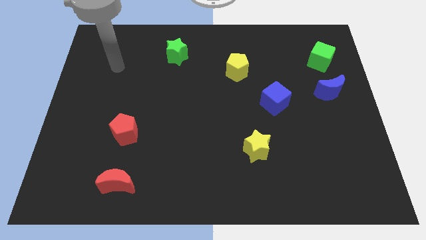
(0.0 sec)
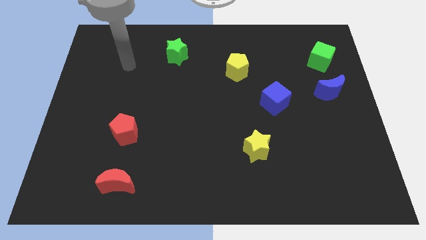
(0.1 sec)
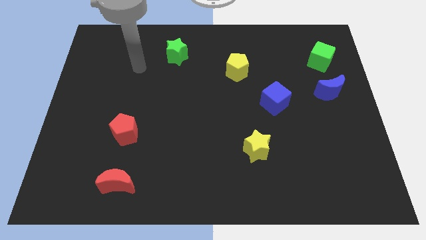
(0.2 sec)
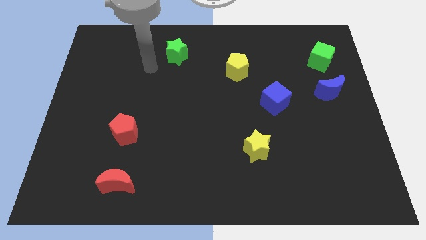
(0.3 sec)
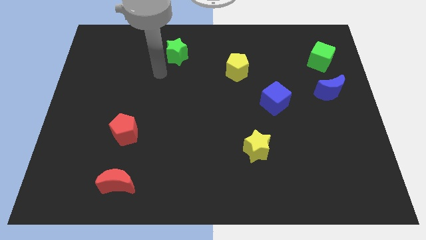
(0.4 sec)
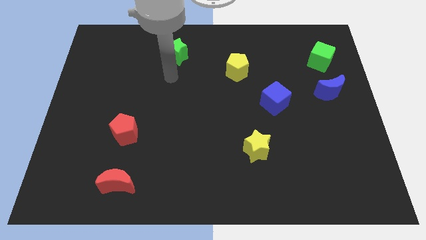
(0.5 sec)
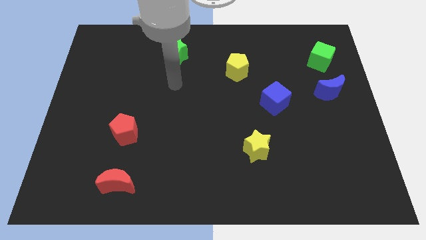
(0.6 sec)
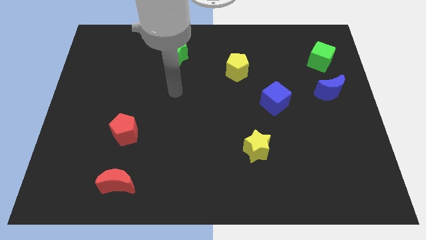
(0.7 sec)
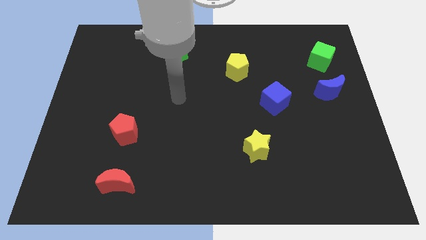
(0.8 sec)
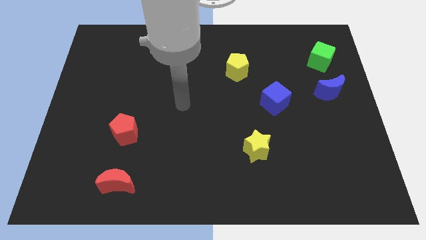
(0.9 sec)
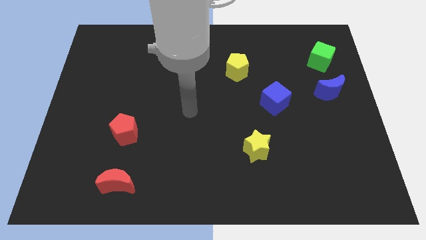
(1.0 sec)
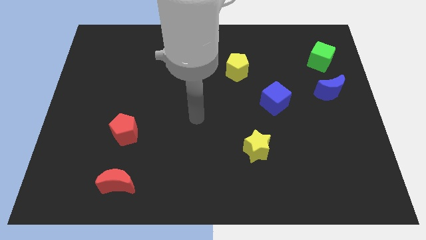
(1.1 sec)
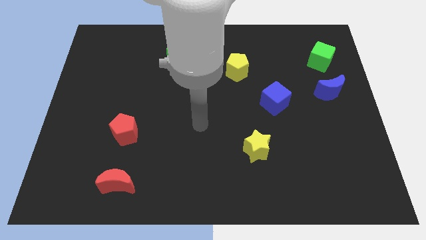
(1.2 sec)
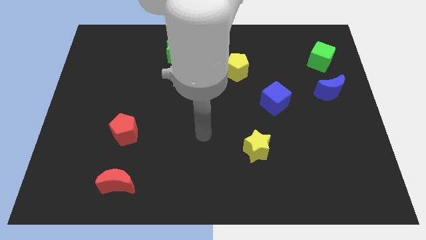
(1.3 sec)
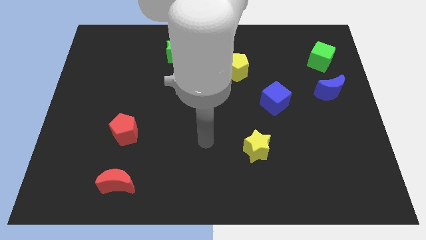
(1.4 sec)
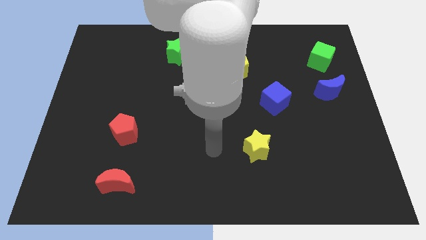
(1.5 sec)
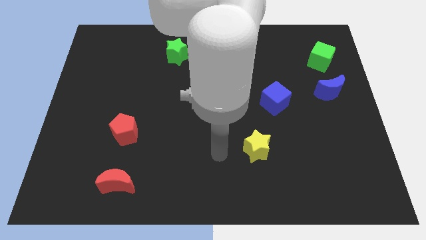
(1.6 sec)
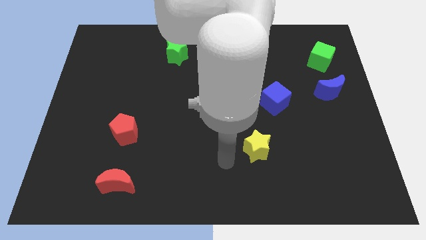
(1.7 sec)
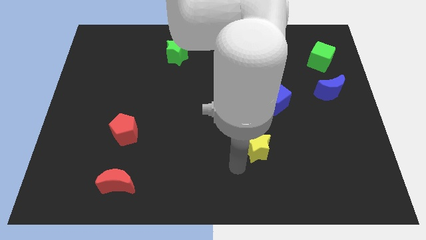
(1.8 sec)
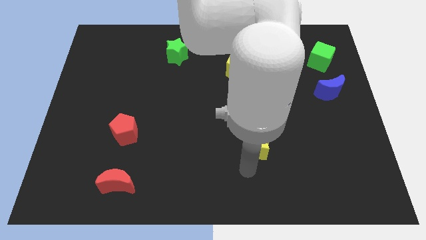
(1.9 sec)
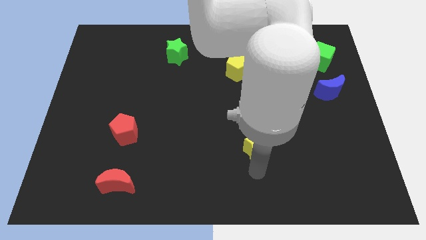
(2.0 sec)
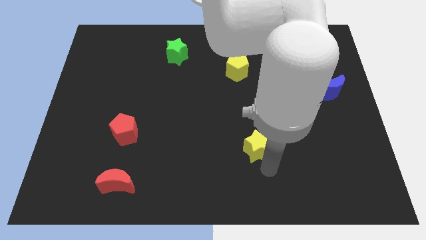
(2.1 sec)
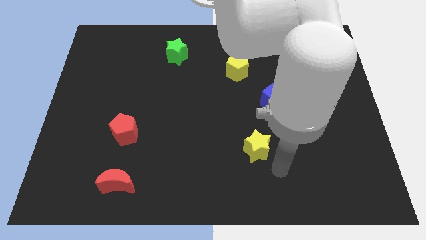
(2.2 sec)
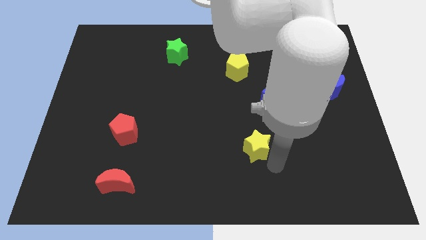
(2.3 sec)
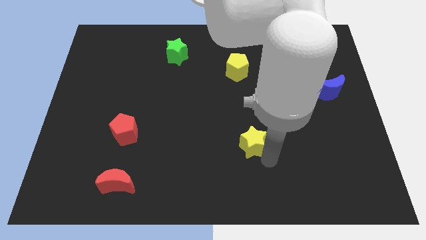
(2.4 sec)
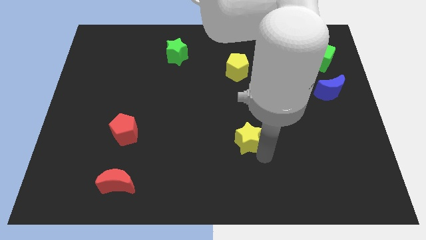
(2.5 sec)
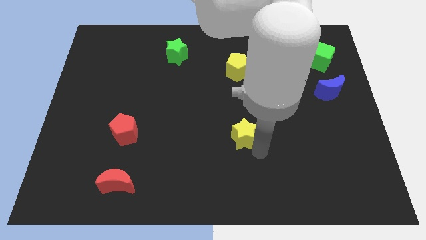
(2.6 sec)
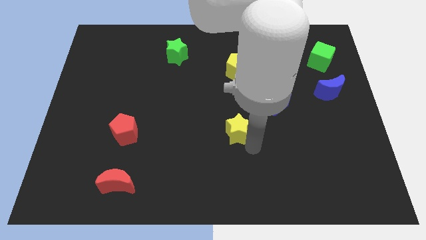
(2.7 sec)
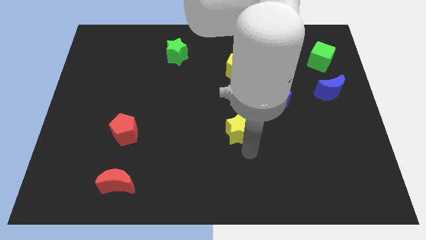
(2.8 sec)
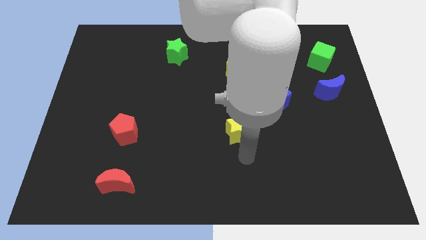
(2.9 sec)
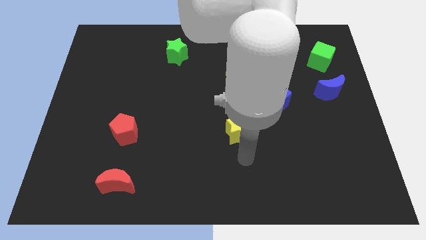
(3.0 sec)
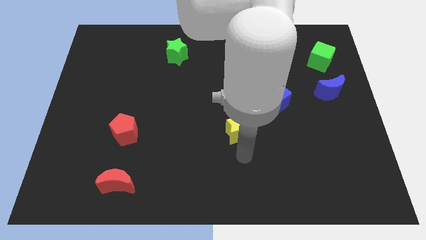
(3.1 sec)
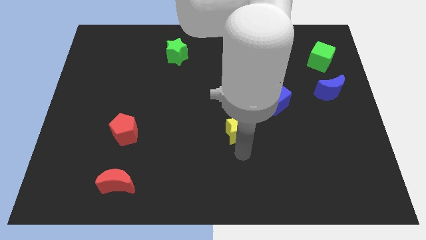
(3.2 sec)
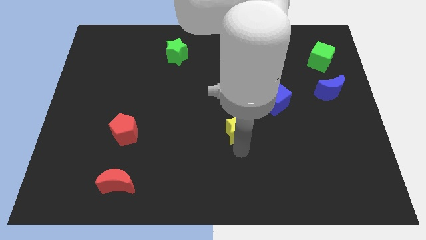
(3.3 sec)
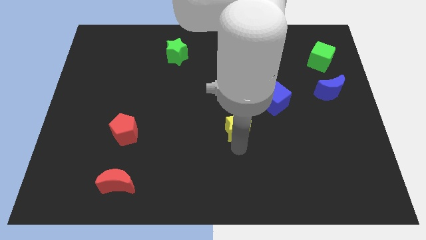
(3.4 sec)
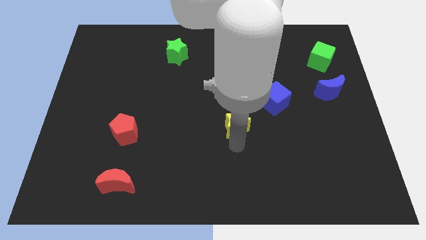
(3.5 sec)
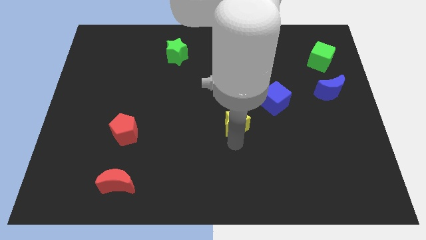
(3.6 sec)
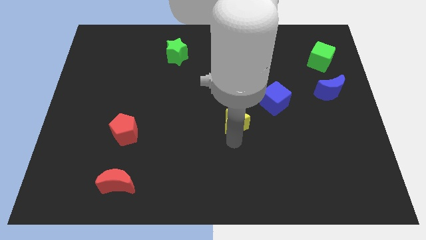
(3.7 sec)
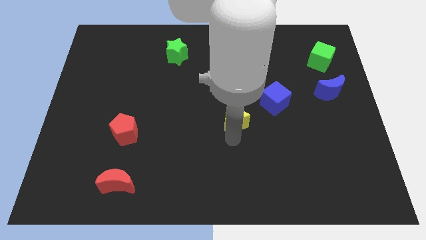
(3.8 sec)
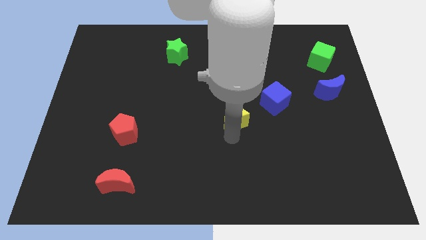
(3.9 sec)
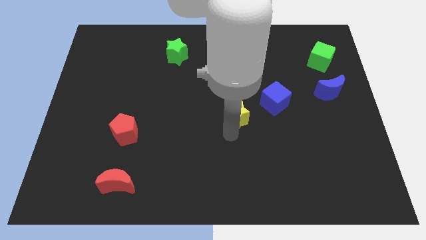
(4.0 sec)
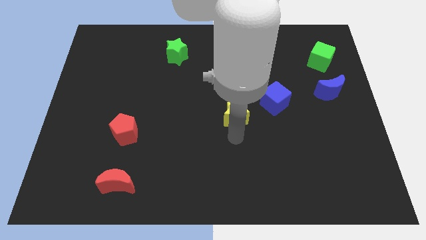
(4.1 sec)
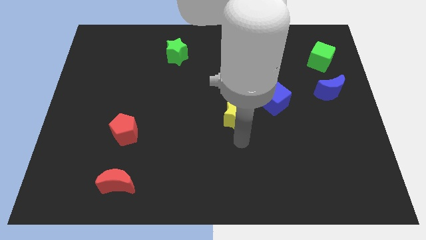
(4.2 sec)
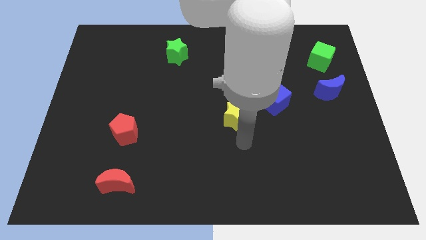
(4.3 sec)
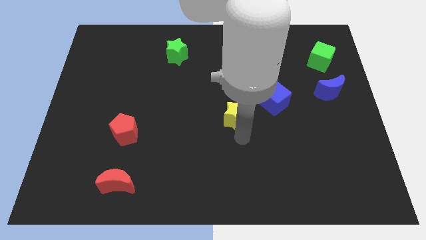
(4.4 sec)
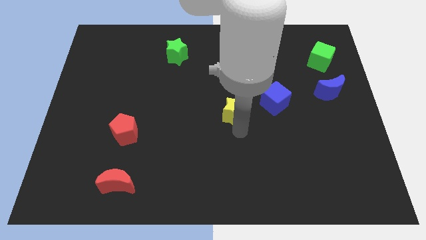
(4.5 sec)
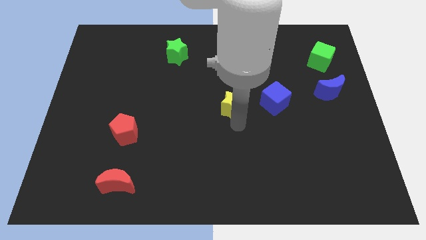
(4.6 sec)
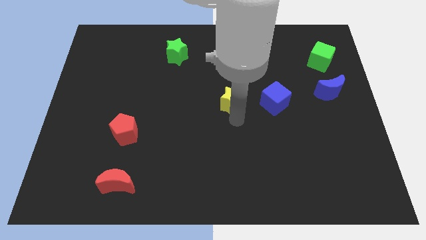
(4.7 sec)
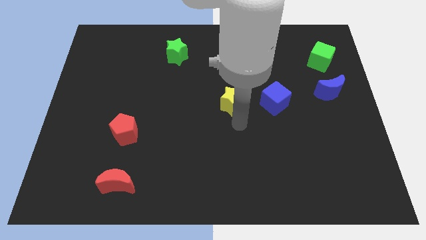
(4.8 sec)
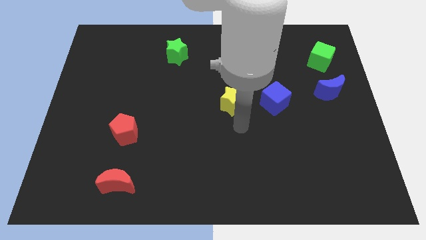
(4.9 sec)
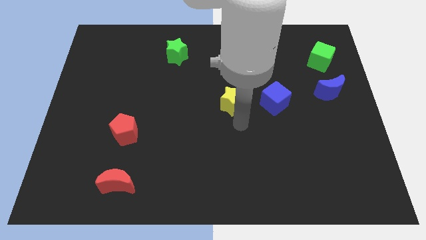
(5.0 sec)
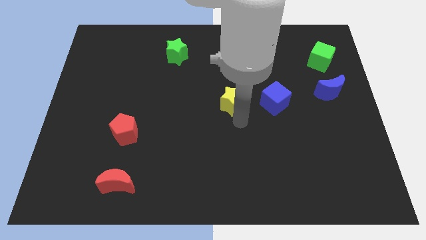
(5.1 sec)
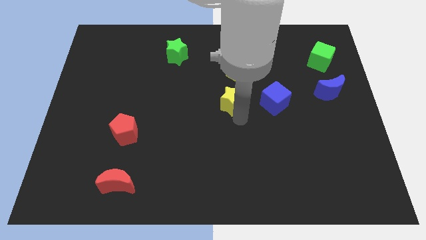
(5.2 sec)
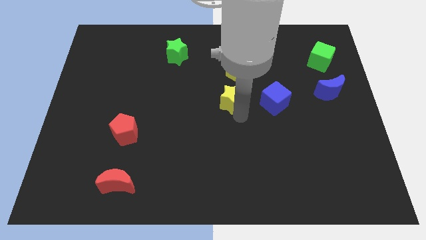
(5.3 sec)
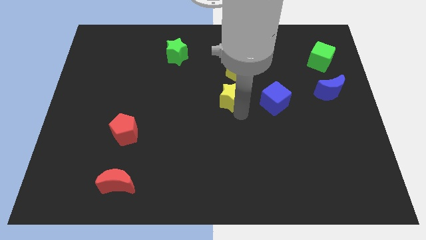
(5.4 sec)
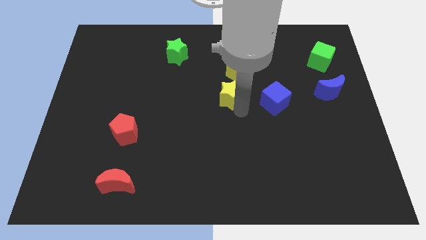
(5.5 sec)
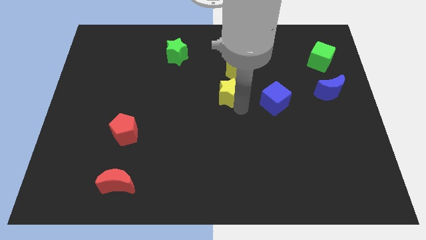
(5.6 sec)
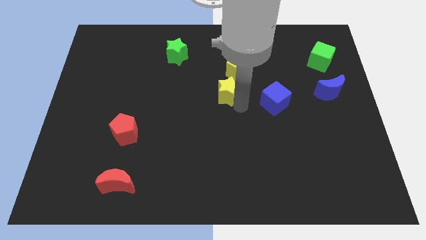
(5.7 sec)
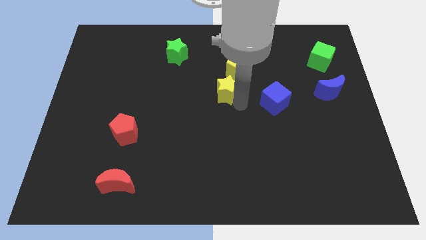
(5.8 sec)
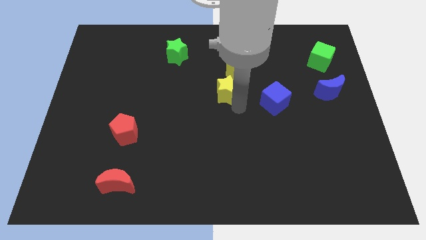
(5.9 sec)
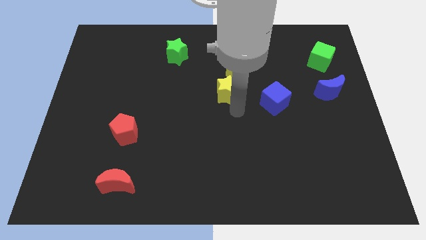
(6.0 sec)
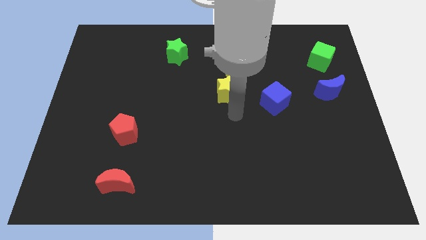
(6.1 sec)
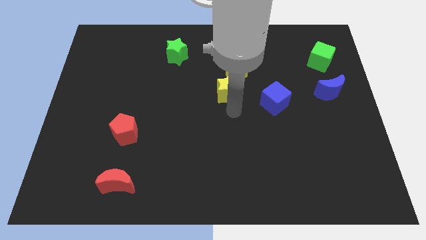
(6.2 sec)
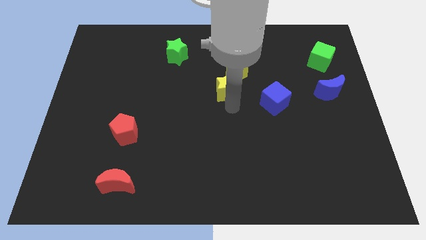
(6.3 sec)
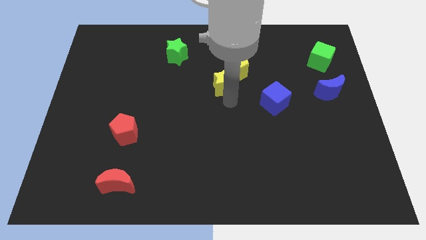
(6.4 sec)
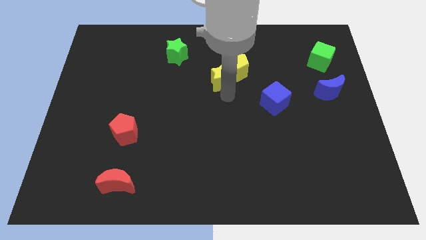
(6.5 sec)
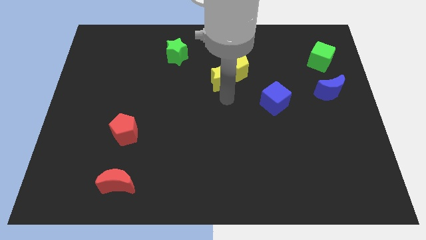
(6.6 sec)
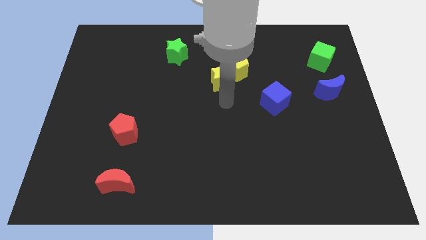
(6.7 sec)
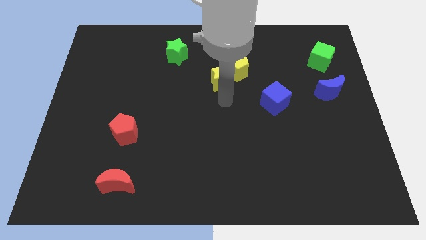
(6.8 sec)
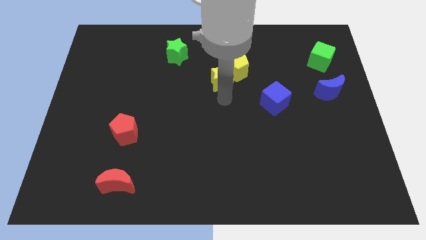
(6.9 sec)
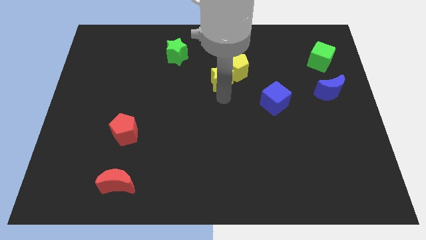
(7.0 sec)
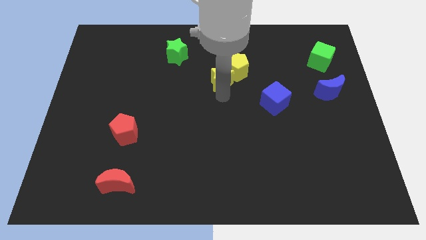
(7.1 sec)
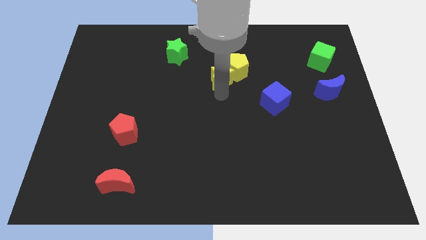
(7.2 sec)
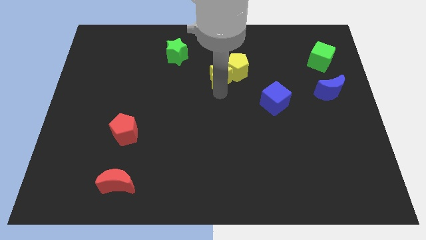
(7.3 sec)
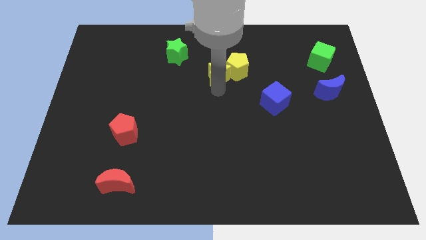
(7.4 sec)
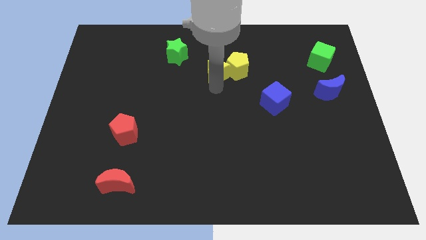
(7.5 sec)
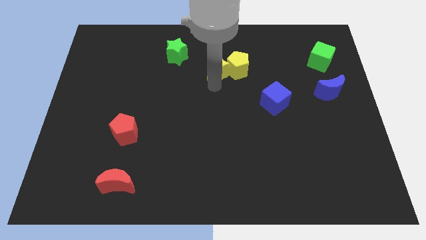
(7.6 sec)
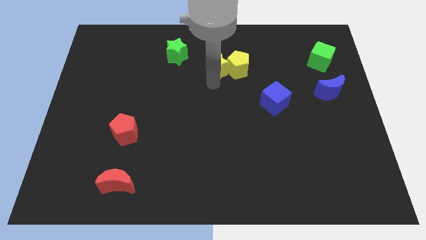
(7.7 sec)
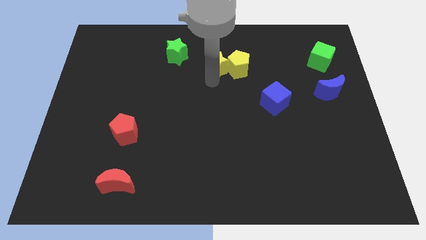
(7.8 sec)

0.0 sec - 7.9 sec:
put the yellow star just right of the green star
